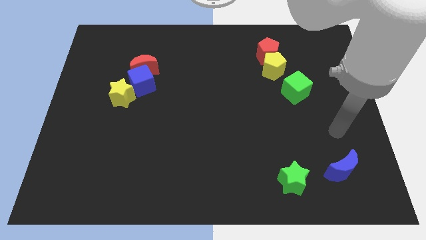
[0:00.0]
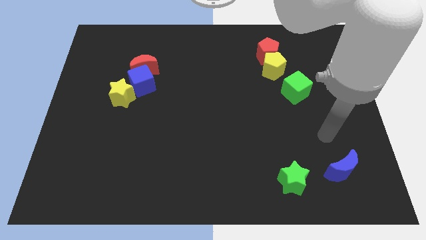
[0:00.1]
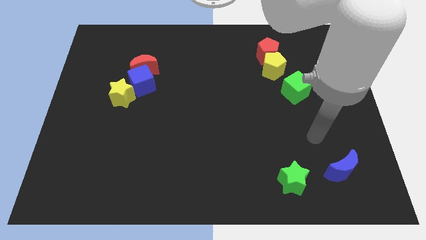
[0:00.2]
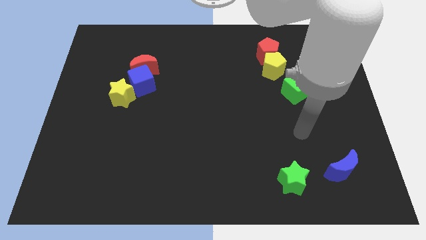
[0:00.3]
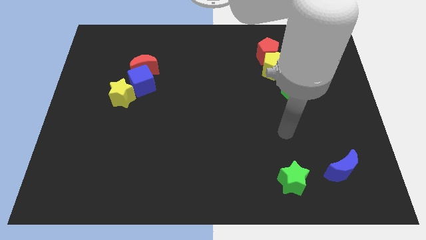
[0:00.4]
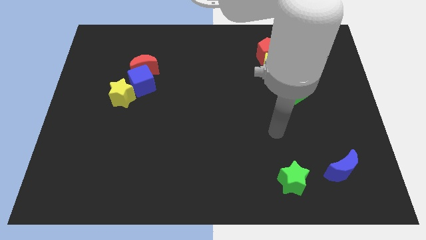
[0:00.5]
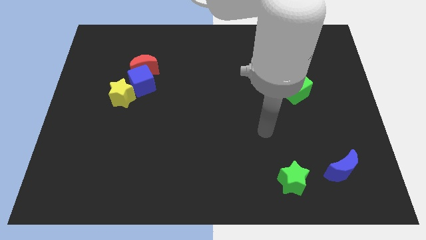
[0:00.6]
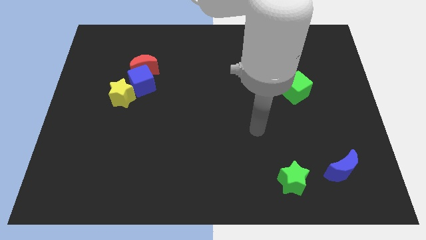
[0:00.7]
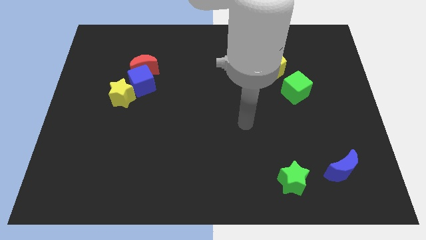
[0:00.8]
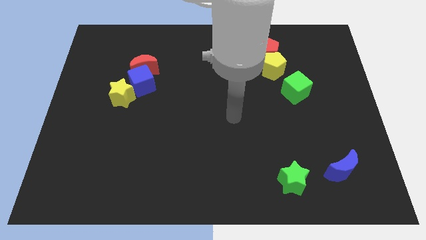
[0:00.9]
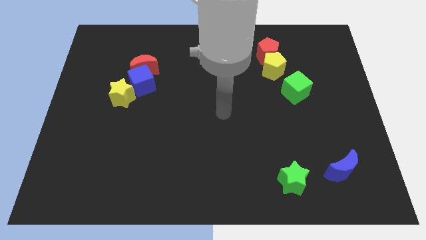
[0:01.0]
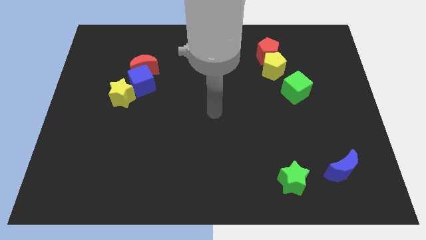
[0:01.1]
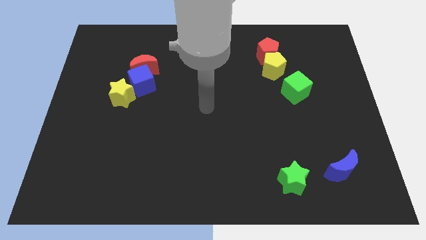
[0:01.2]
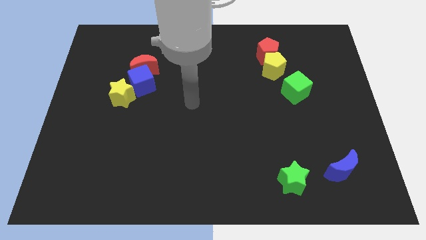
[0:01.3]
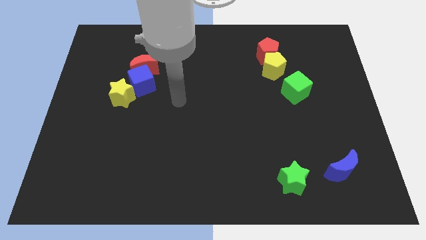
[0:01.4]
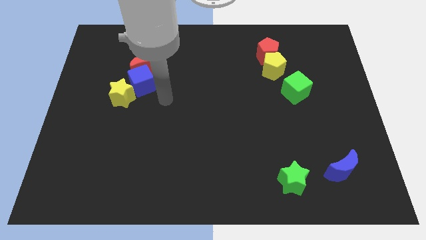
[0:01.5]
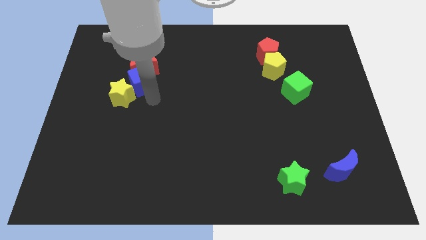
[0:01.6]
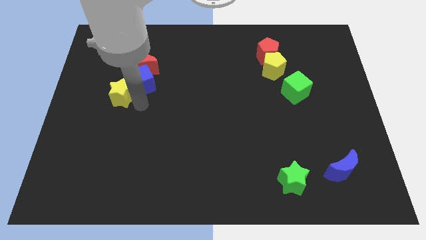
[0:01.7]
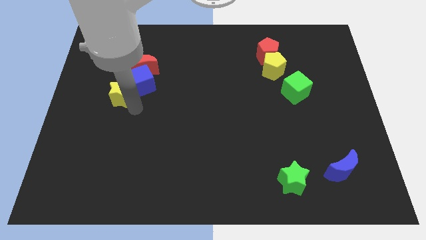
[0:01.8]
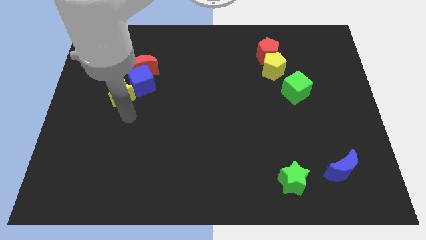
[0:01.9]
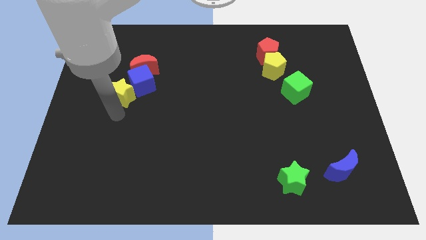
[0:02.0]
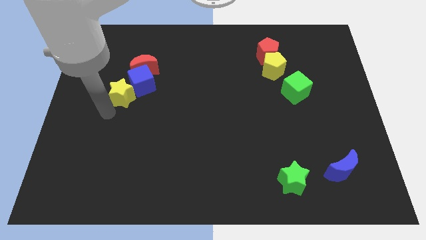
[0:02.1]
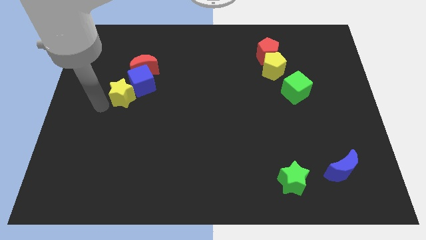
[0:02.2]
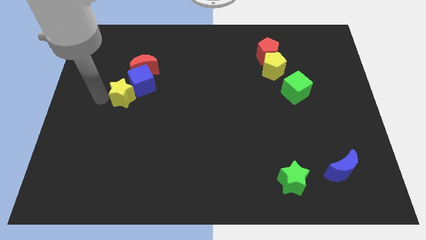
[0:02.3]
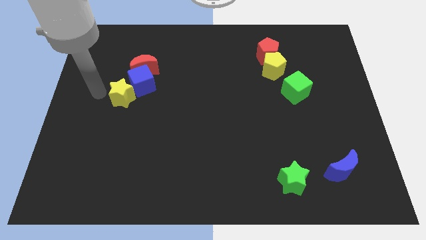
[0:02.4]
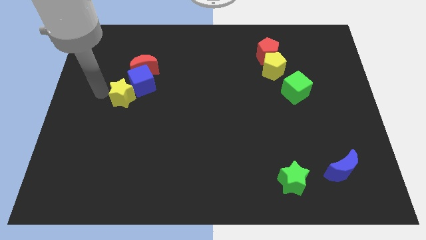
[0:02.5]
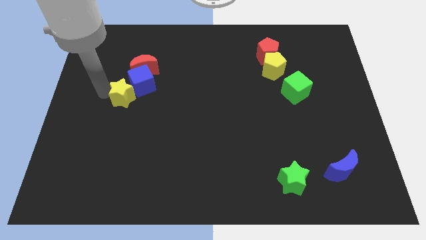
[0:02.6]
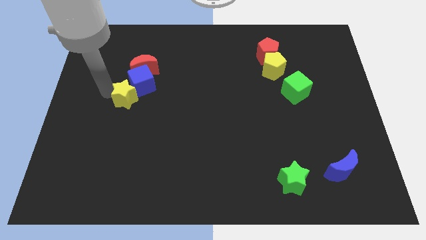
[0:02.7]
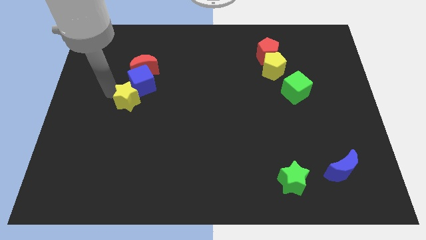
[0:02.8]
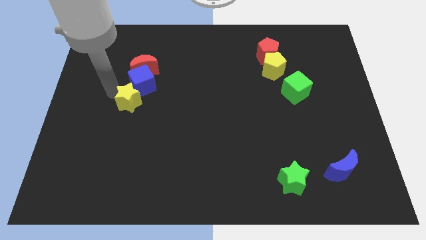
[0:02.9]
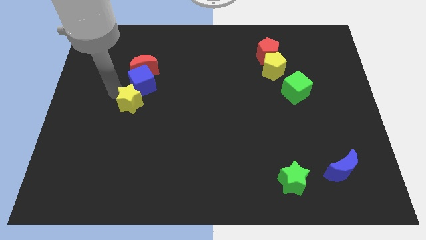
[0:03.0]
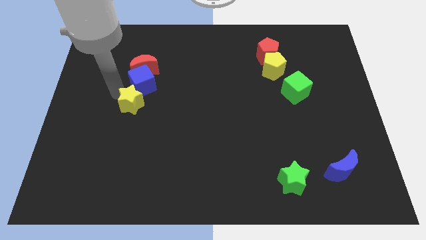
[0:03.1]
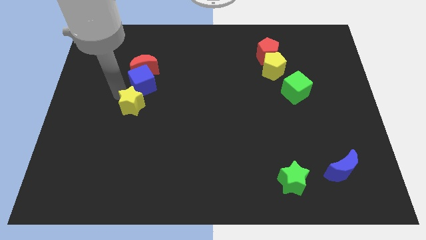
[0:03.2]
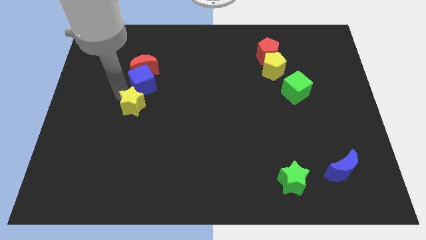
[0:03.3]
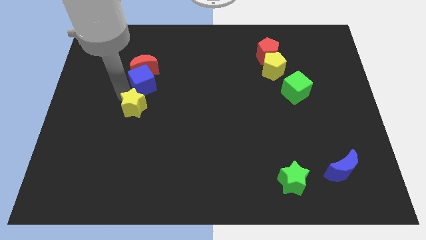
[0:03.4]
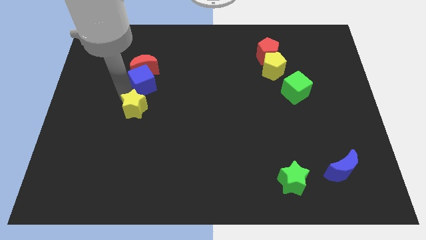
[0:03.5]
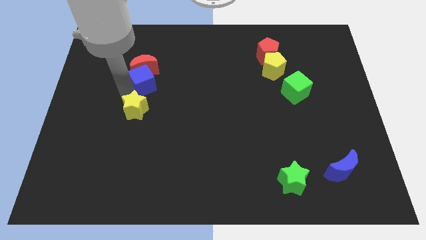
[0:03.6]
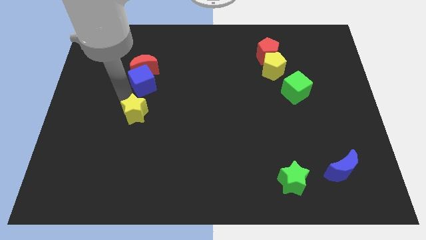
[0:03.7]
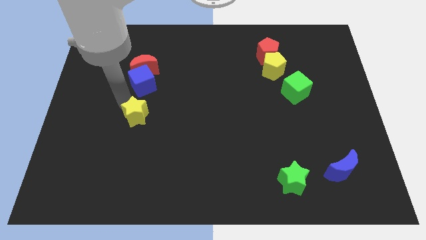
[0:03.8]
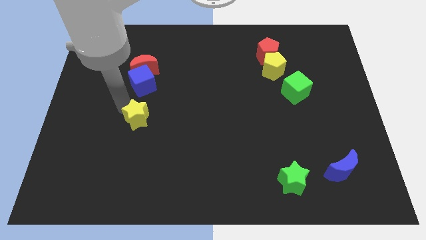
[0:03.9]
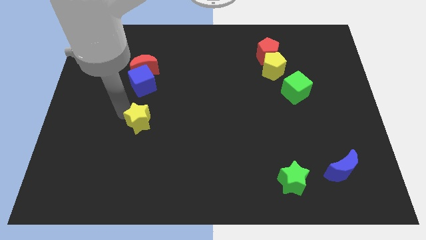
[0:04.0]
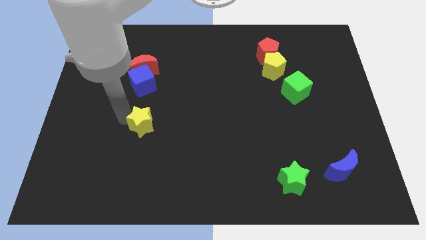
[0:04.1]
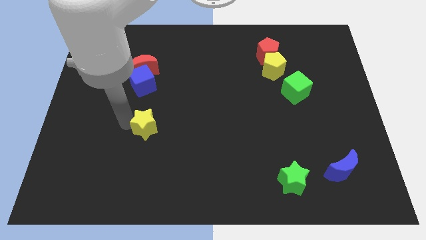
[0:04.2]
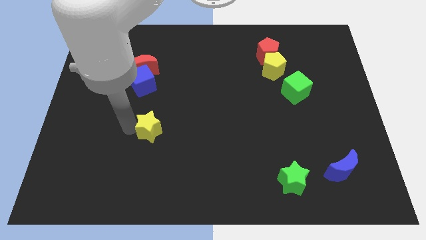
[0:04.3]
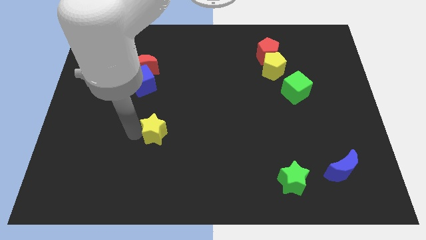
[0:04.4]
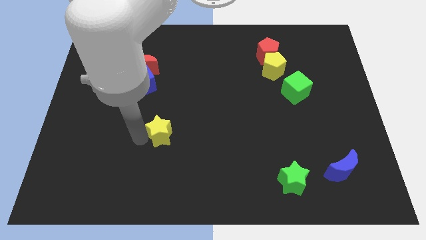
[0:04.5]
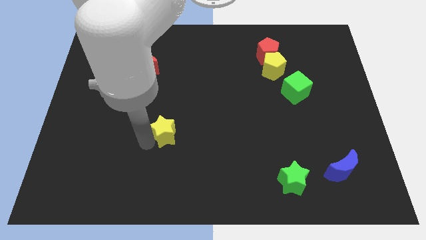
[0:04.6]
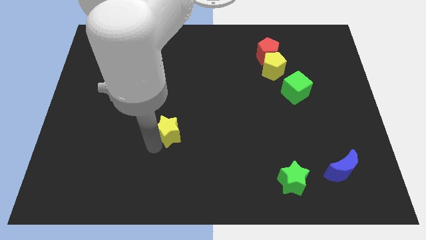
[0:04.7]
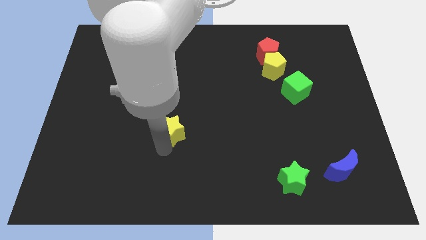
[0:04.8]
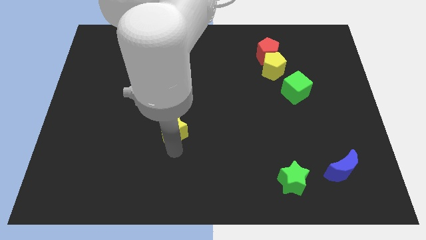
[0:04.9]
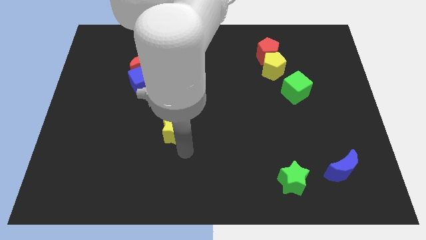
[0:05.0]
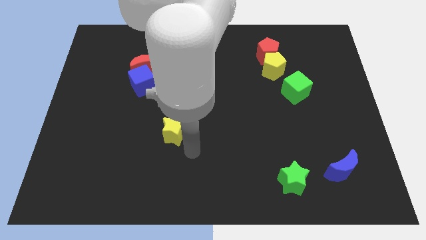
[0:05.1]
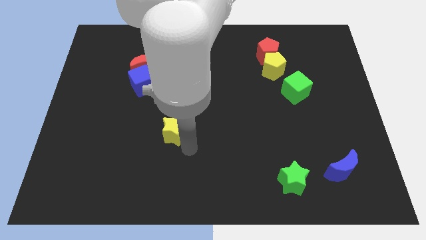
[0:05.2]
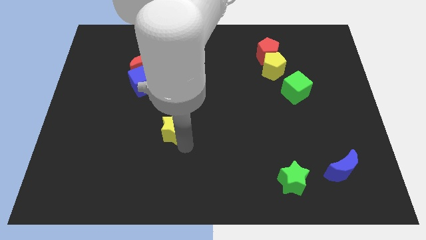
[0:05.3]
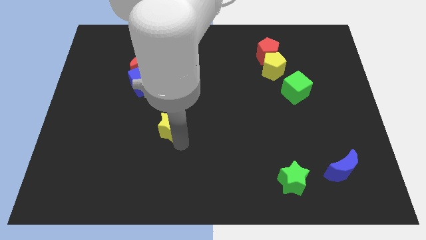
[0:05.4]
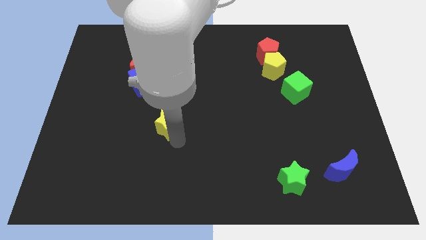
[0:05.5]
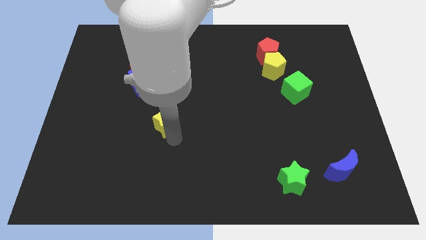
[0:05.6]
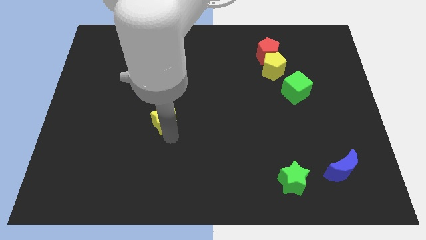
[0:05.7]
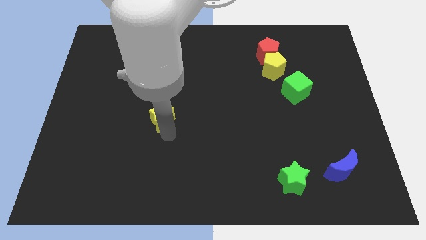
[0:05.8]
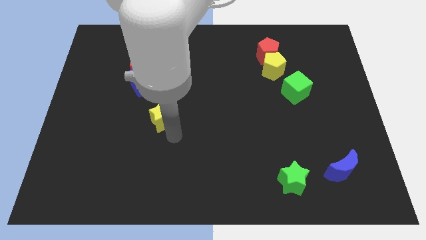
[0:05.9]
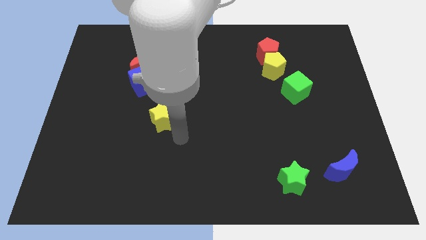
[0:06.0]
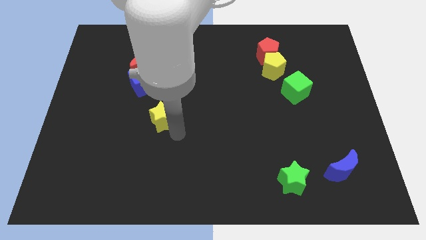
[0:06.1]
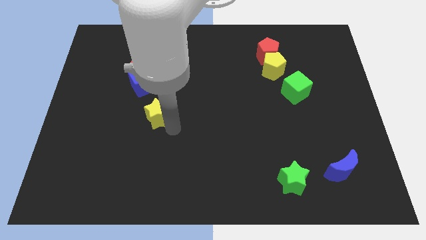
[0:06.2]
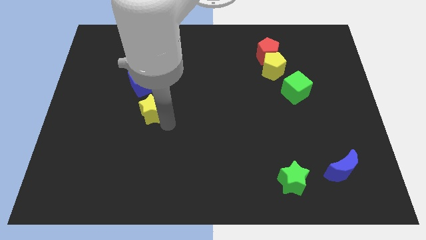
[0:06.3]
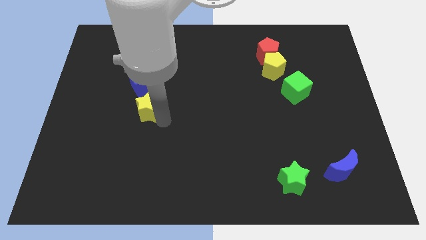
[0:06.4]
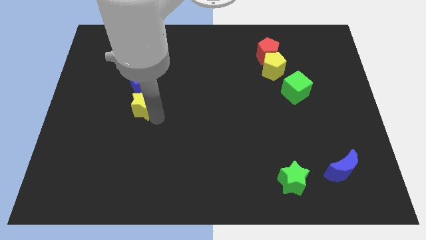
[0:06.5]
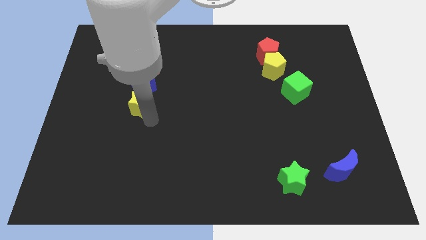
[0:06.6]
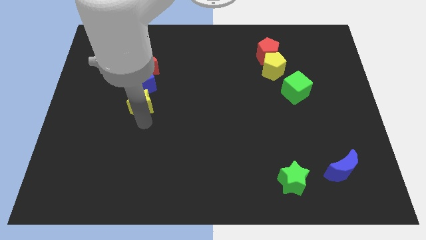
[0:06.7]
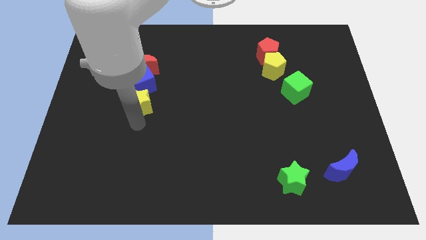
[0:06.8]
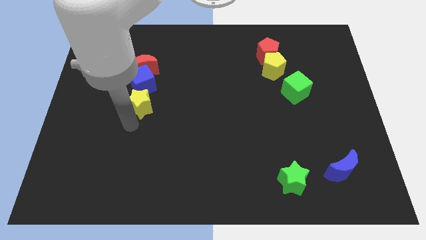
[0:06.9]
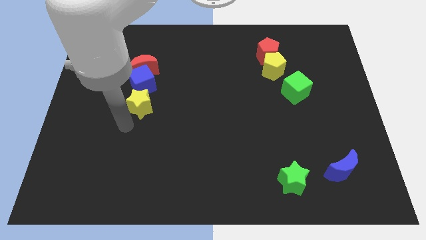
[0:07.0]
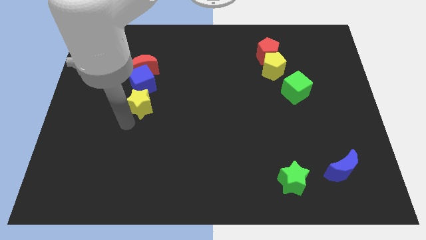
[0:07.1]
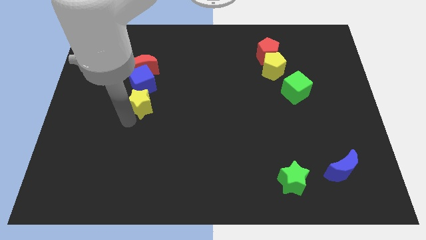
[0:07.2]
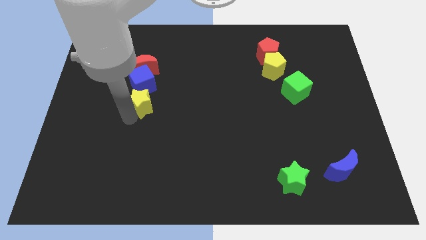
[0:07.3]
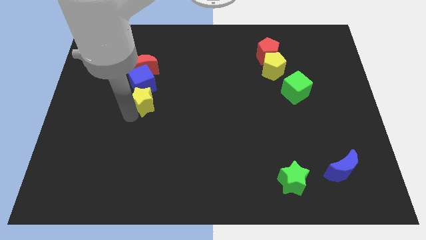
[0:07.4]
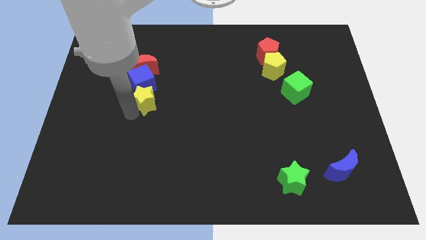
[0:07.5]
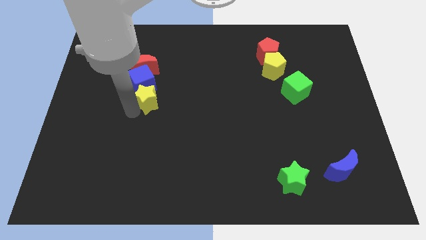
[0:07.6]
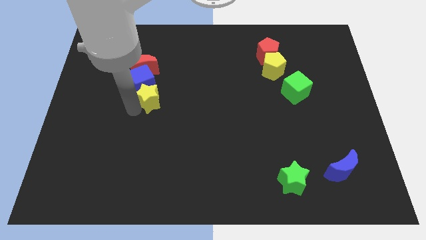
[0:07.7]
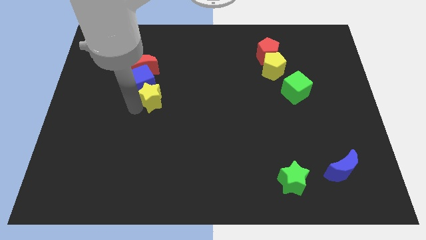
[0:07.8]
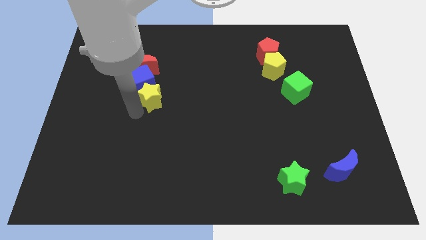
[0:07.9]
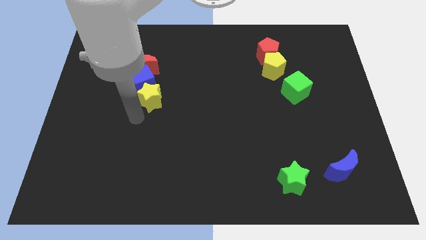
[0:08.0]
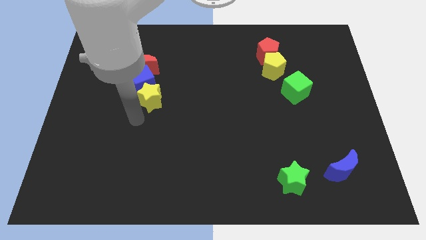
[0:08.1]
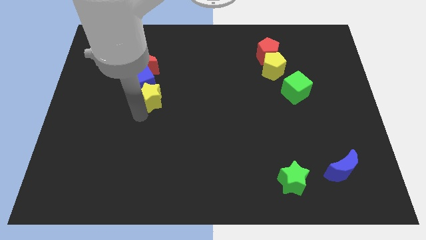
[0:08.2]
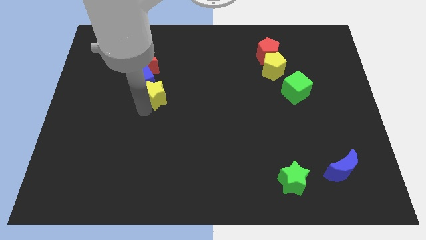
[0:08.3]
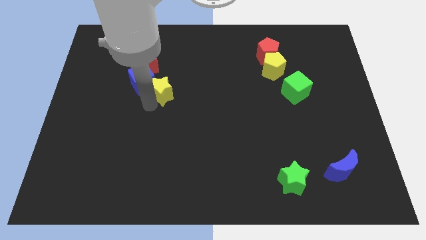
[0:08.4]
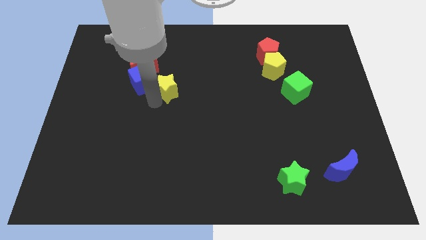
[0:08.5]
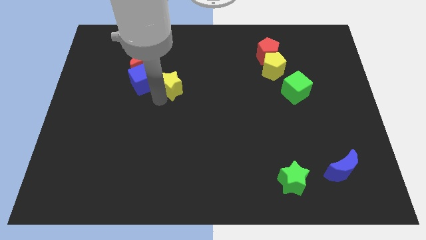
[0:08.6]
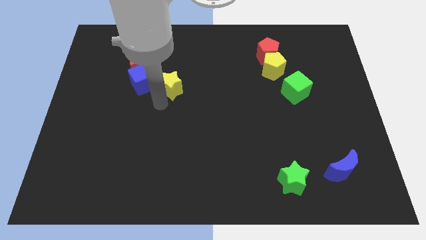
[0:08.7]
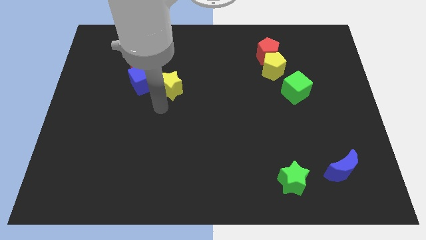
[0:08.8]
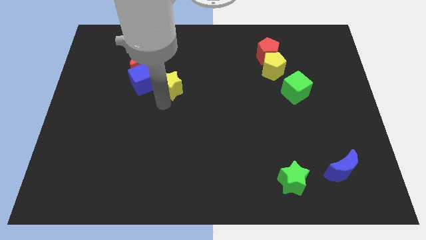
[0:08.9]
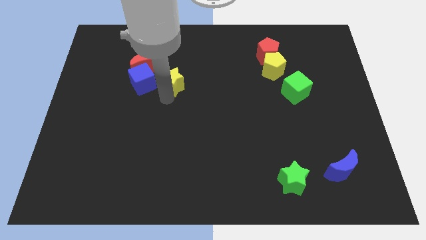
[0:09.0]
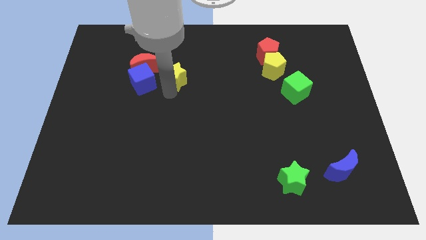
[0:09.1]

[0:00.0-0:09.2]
slide the yellow star just right of the red moon
